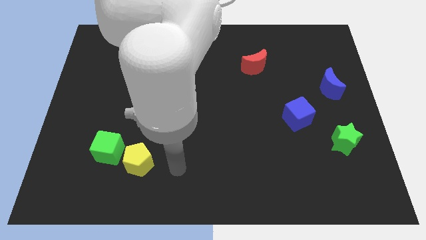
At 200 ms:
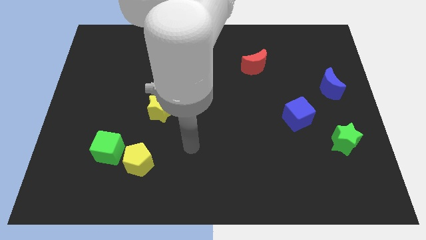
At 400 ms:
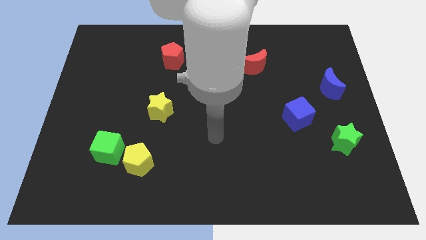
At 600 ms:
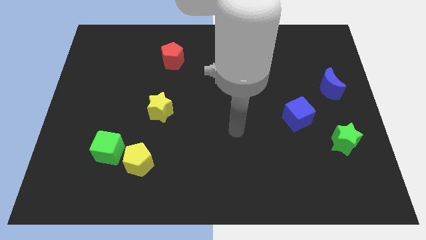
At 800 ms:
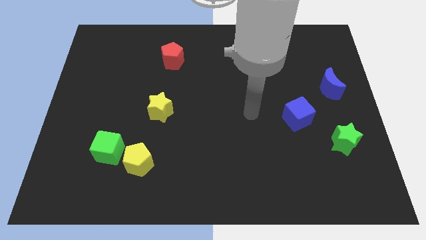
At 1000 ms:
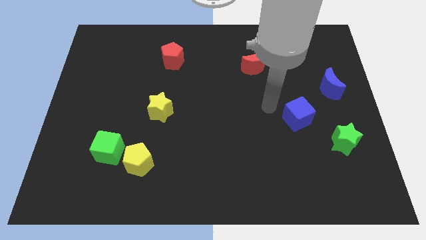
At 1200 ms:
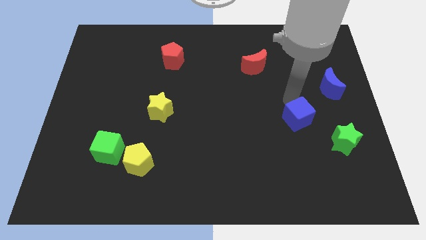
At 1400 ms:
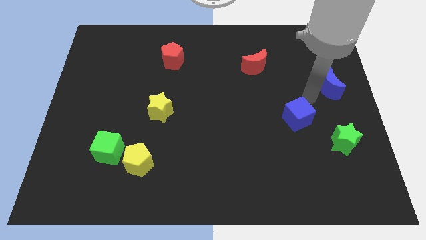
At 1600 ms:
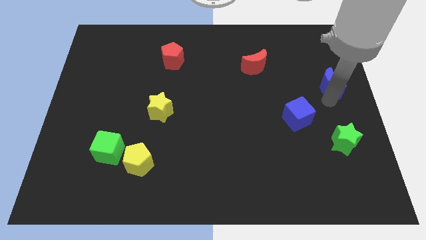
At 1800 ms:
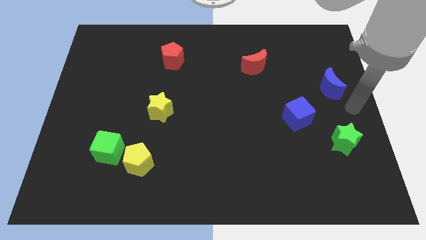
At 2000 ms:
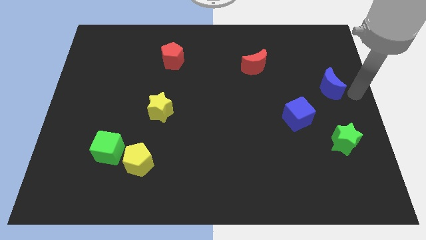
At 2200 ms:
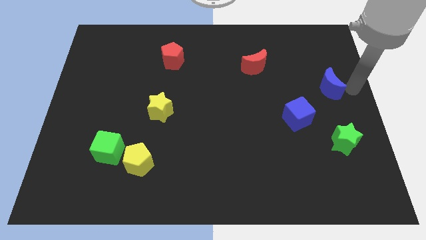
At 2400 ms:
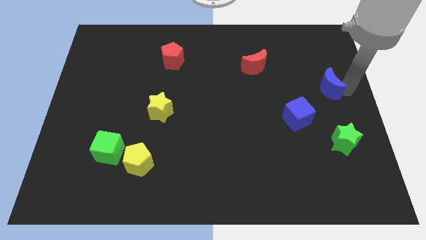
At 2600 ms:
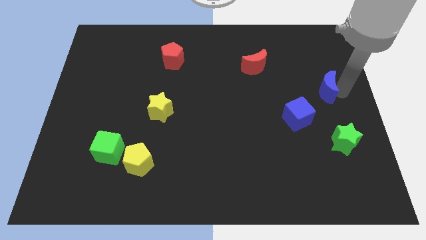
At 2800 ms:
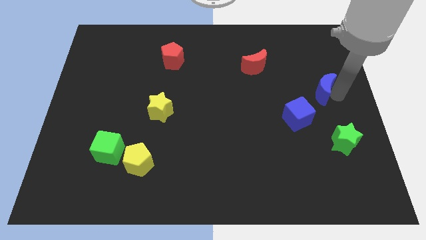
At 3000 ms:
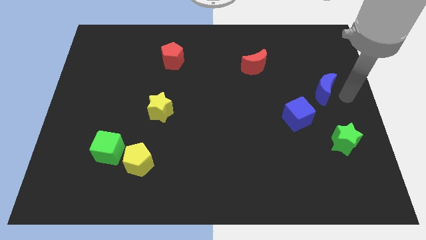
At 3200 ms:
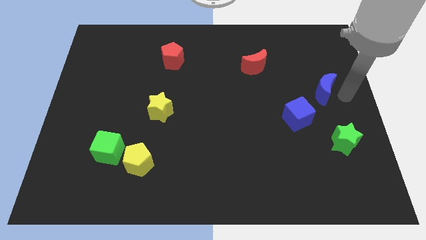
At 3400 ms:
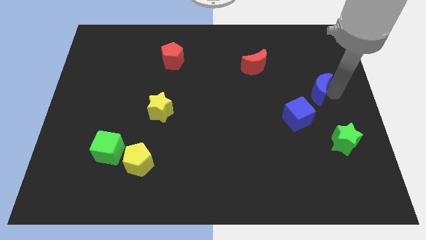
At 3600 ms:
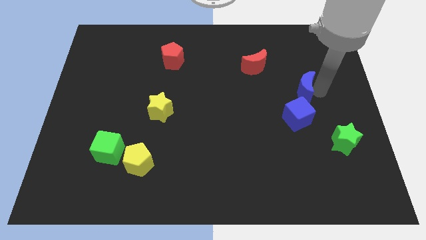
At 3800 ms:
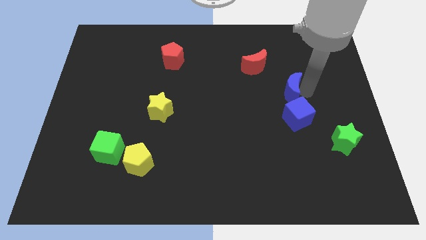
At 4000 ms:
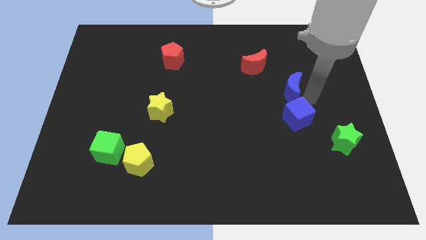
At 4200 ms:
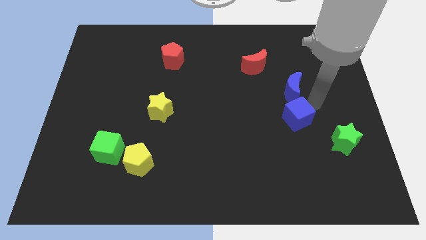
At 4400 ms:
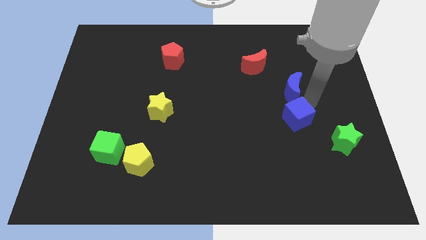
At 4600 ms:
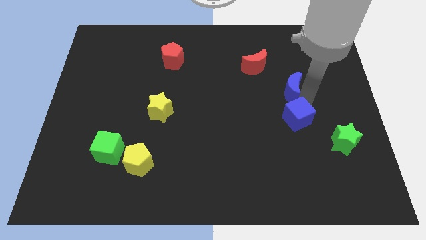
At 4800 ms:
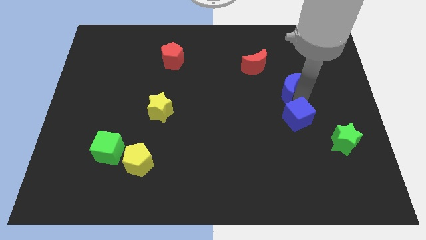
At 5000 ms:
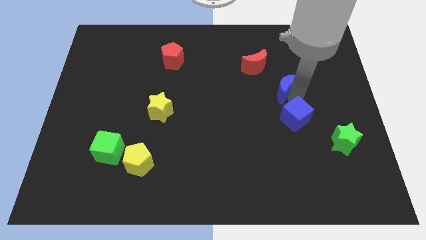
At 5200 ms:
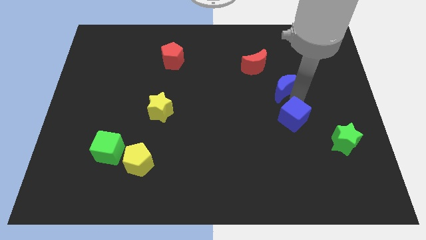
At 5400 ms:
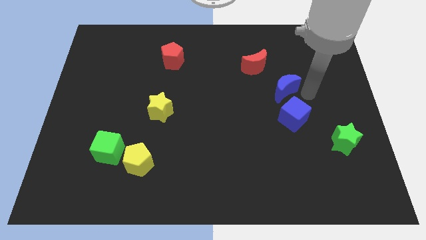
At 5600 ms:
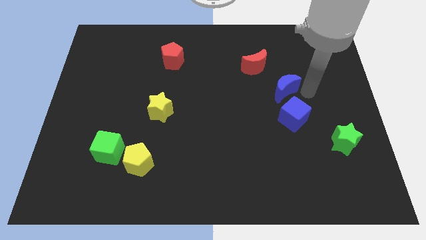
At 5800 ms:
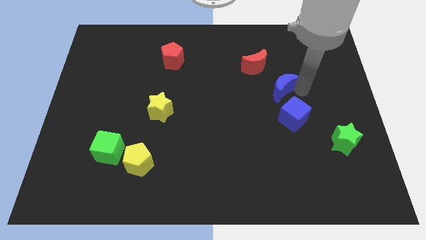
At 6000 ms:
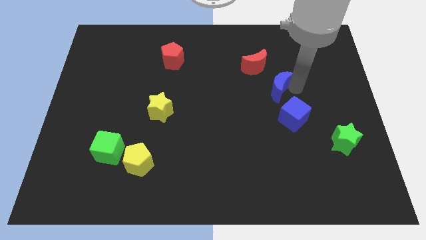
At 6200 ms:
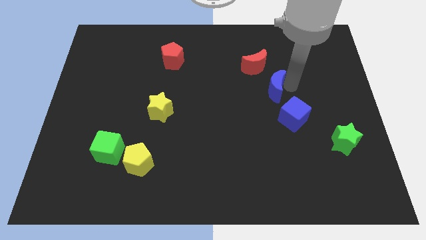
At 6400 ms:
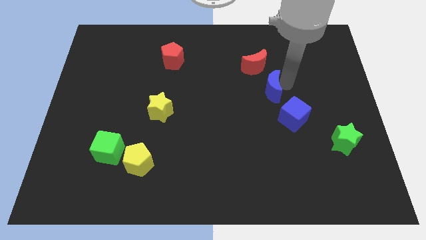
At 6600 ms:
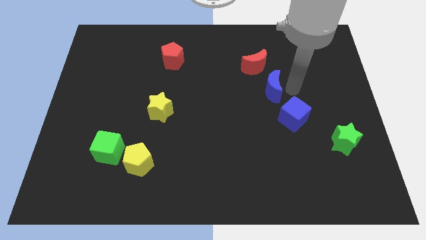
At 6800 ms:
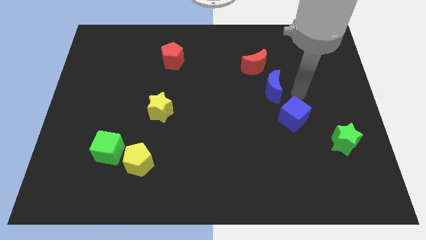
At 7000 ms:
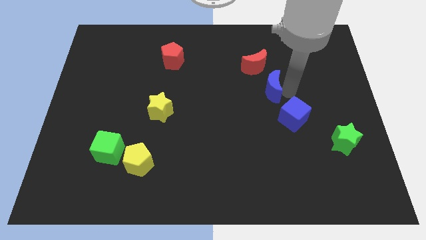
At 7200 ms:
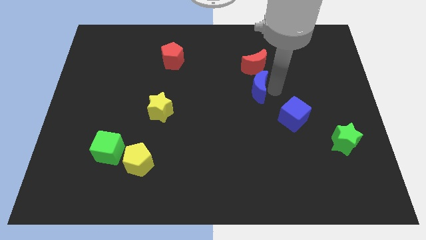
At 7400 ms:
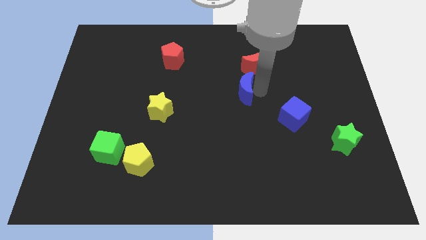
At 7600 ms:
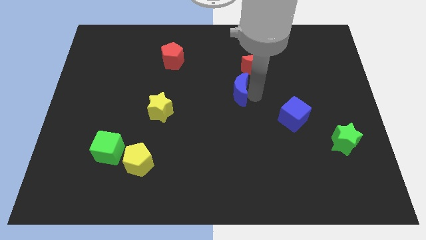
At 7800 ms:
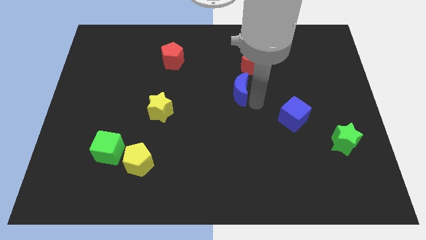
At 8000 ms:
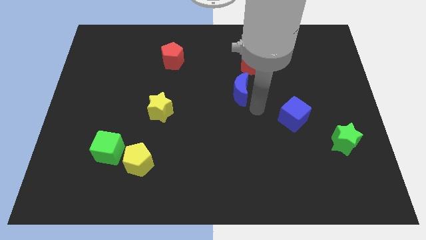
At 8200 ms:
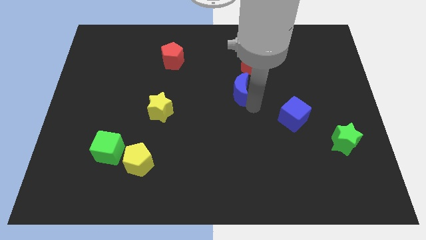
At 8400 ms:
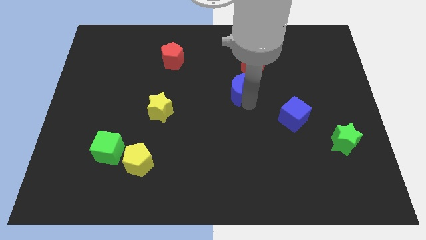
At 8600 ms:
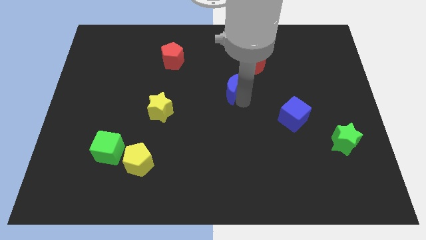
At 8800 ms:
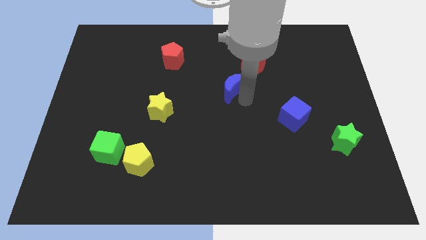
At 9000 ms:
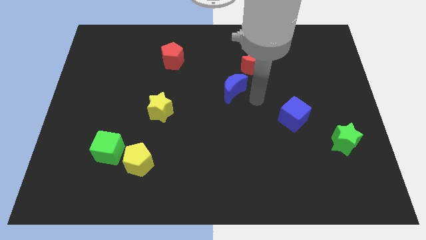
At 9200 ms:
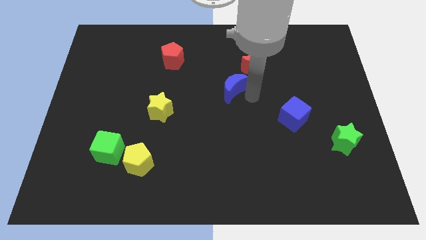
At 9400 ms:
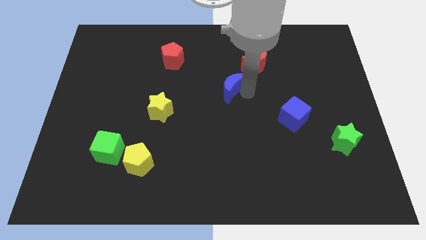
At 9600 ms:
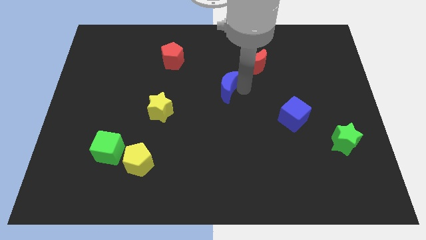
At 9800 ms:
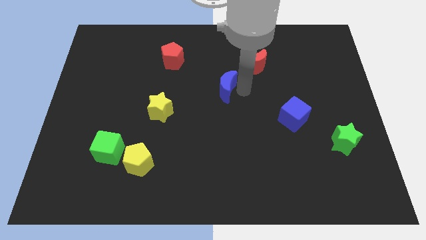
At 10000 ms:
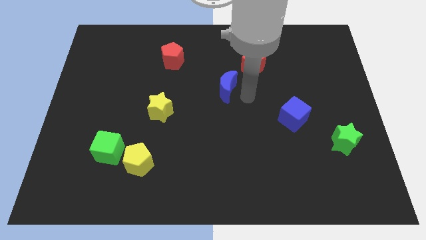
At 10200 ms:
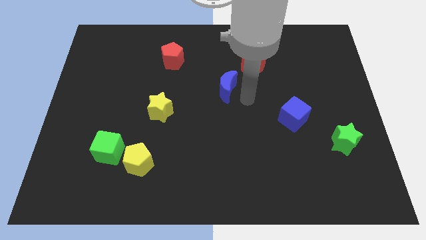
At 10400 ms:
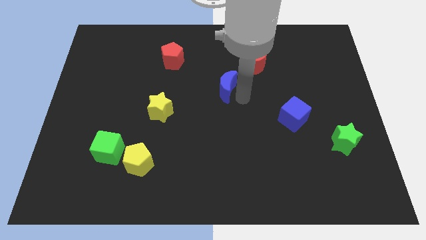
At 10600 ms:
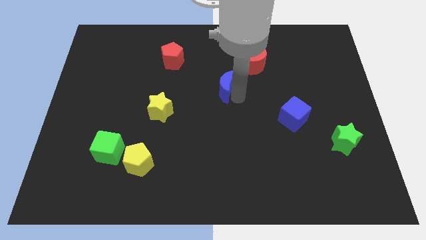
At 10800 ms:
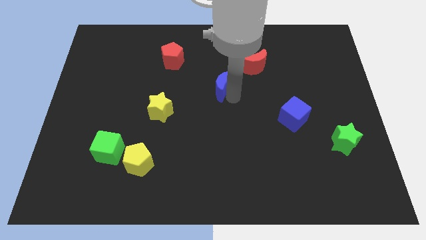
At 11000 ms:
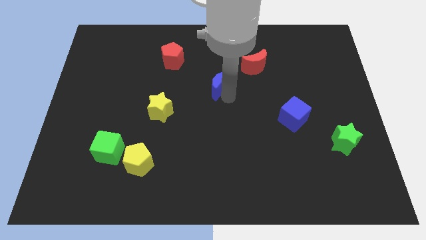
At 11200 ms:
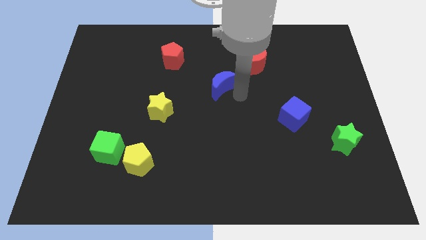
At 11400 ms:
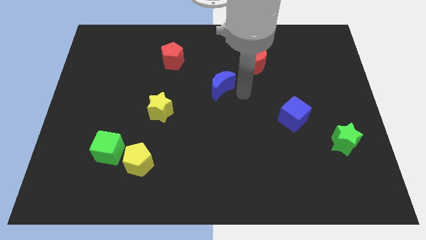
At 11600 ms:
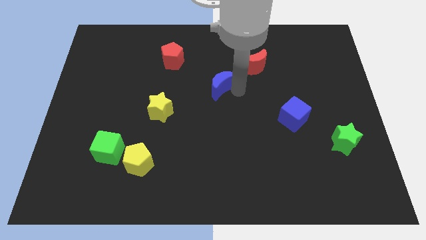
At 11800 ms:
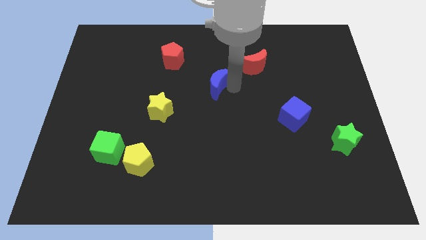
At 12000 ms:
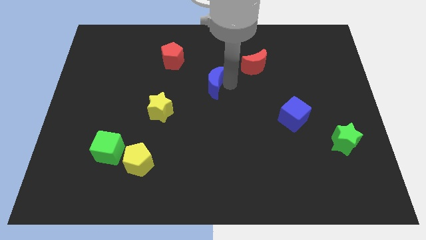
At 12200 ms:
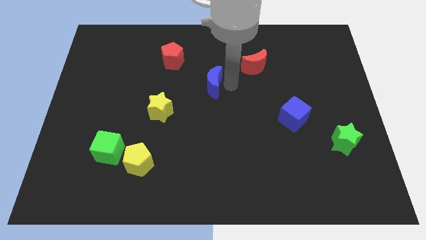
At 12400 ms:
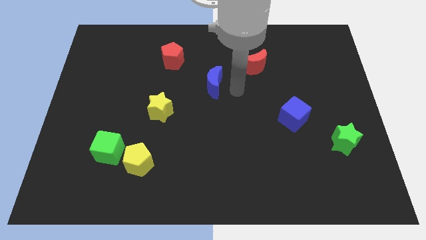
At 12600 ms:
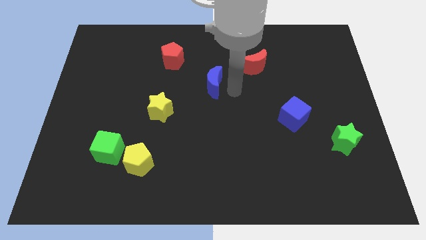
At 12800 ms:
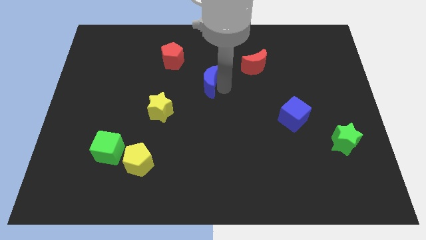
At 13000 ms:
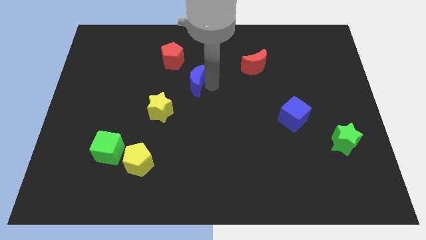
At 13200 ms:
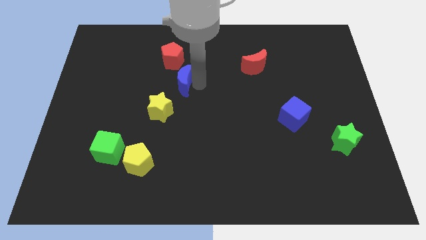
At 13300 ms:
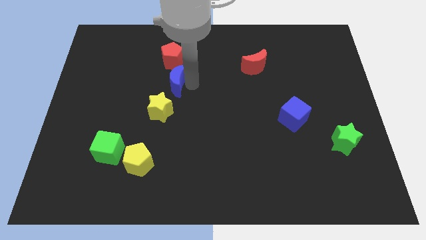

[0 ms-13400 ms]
put the blue moon to the top side of the yellow star
